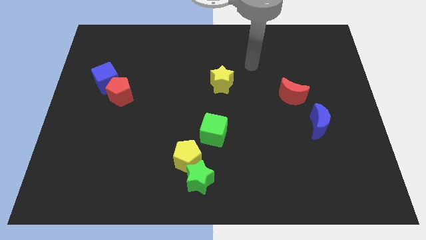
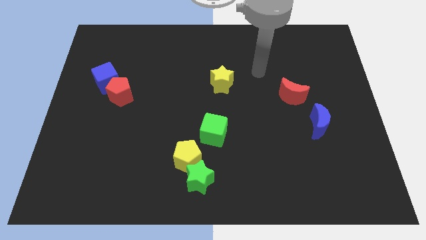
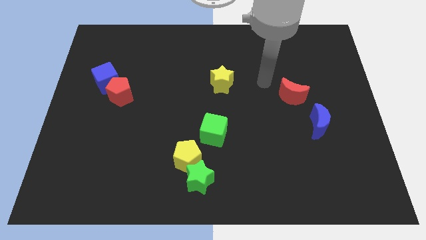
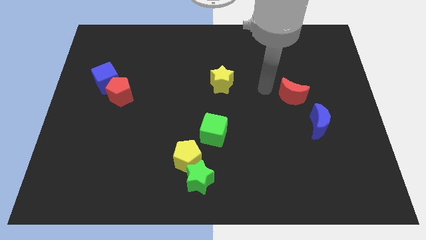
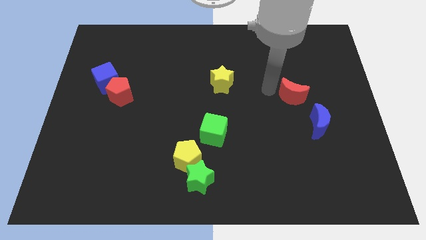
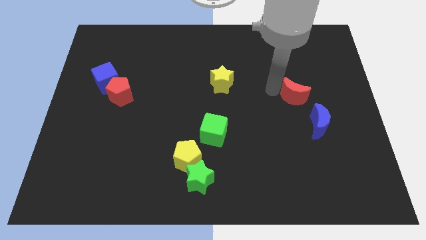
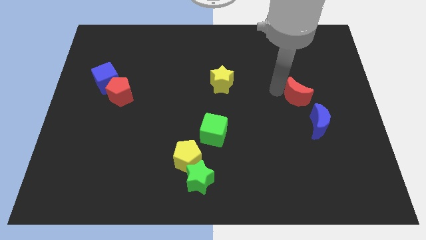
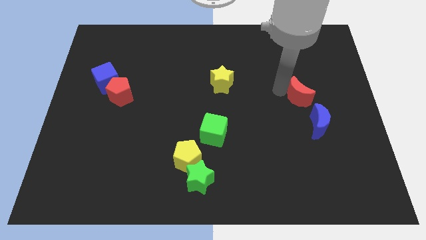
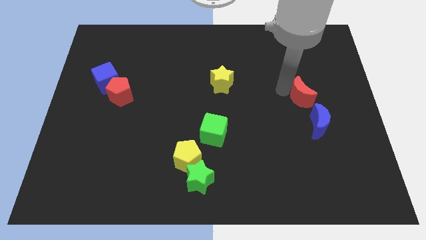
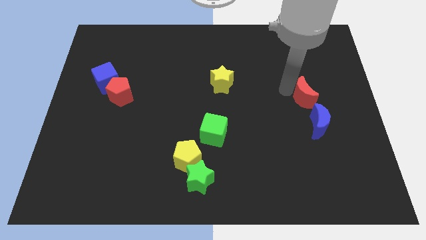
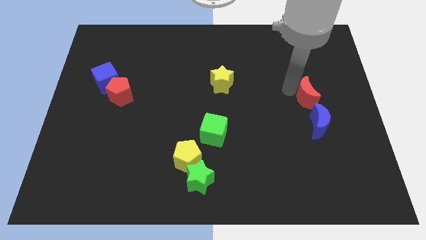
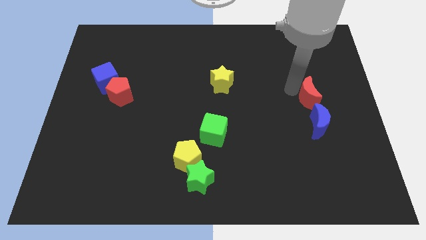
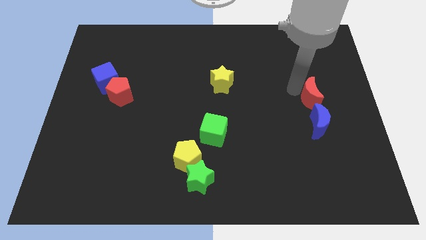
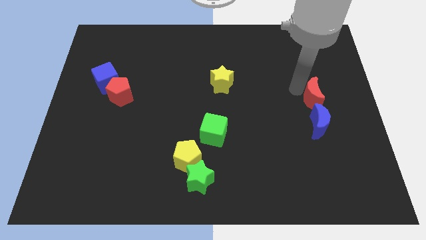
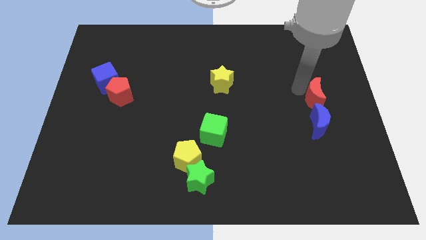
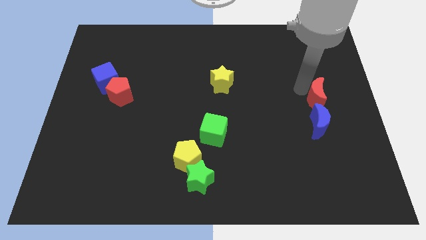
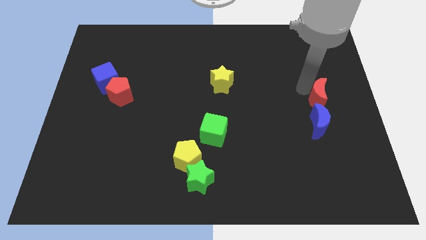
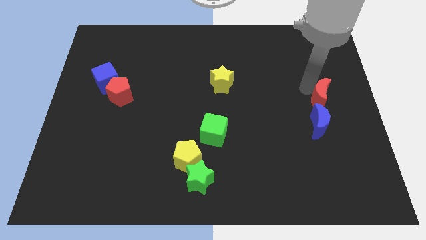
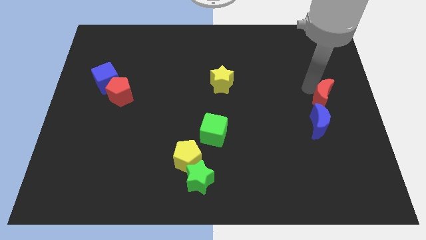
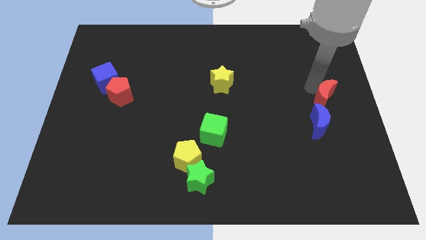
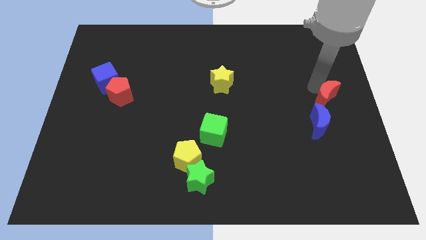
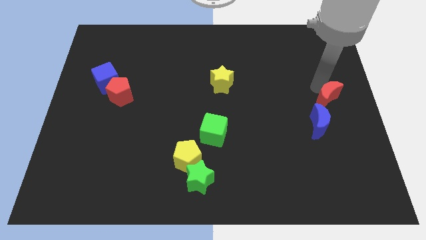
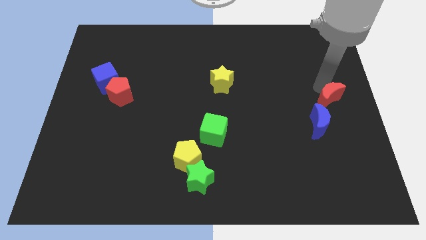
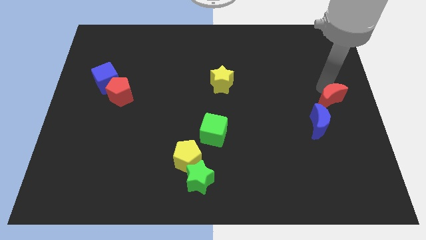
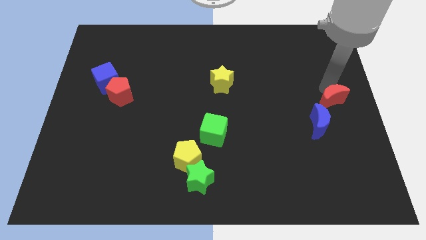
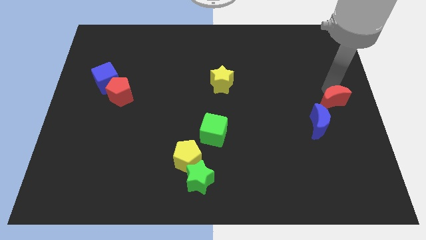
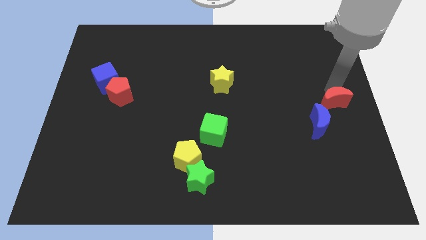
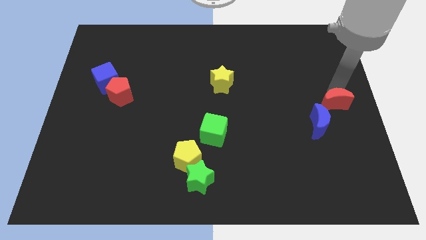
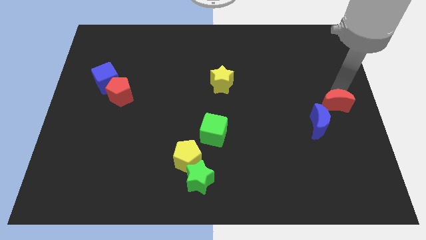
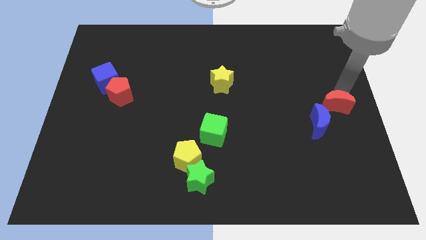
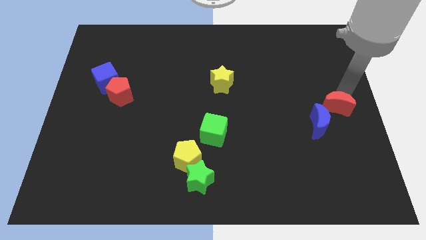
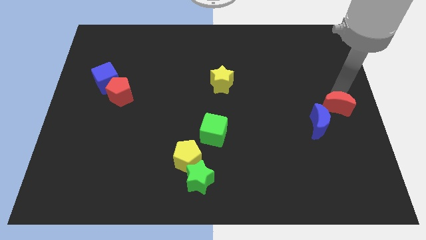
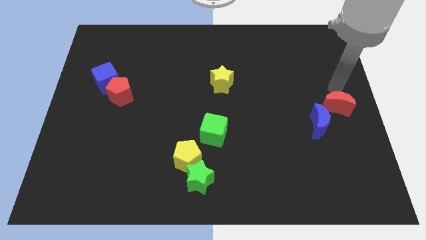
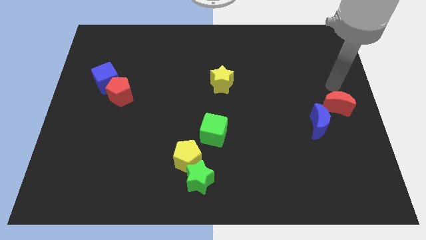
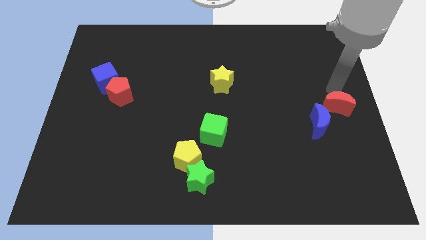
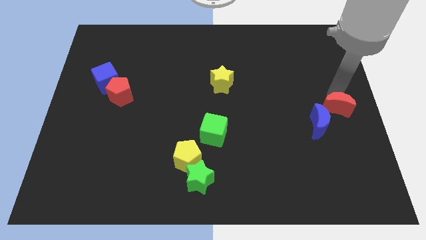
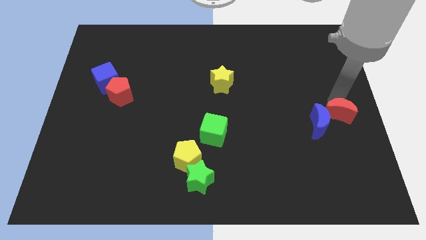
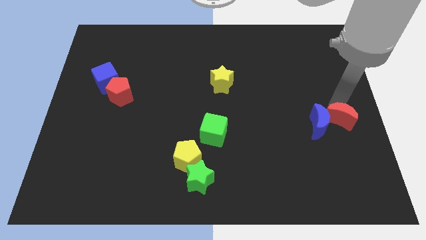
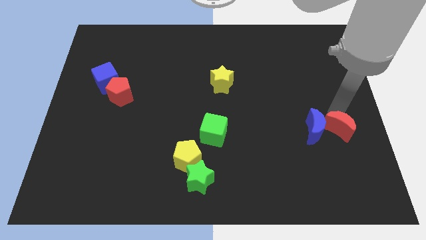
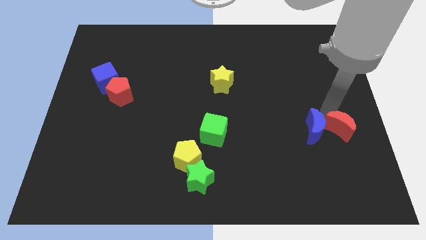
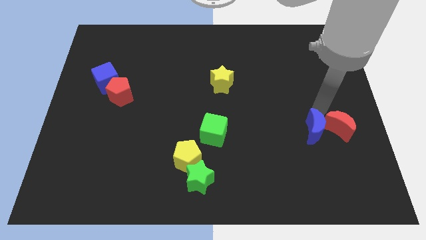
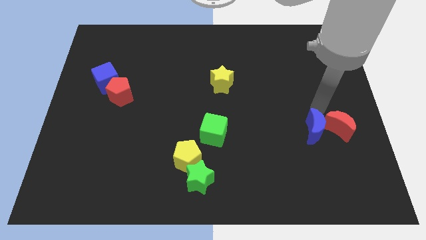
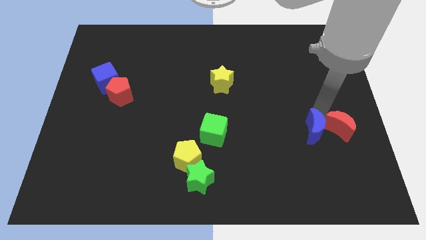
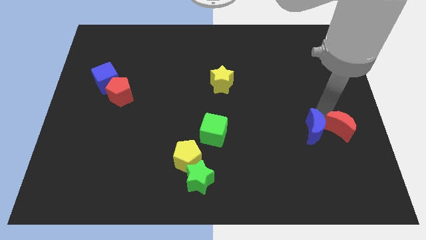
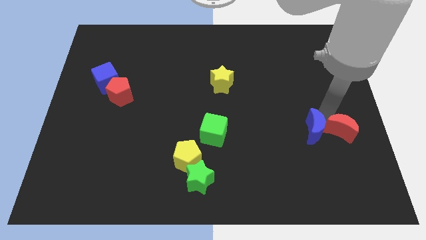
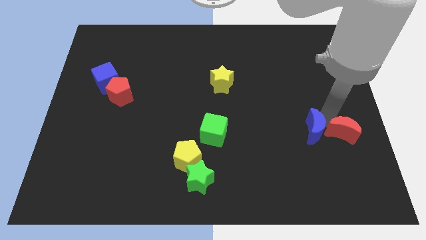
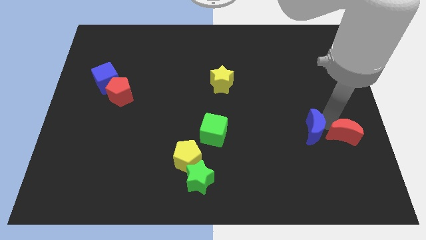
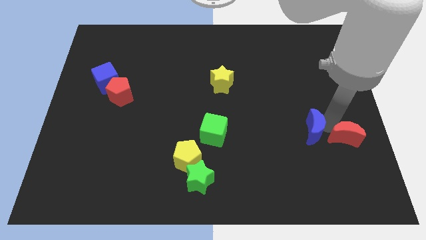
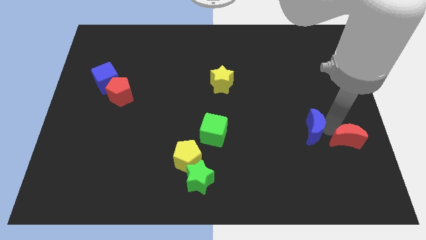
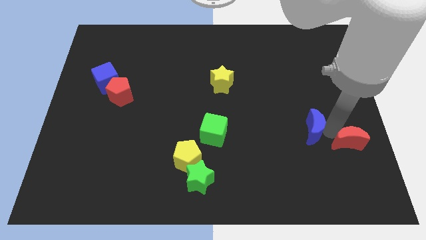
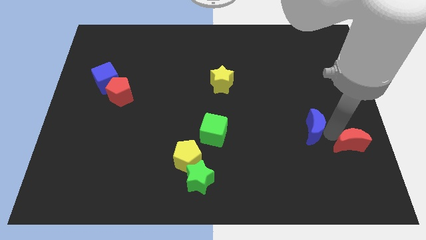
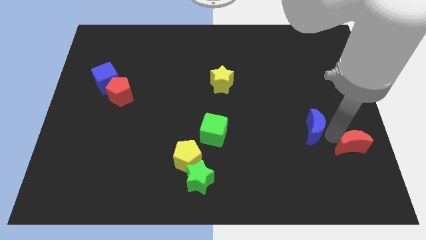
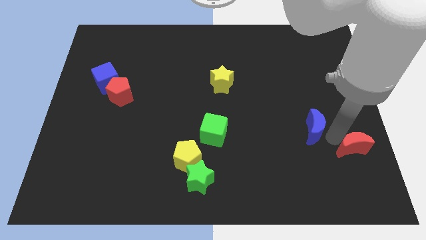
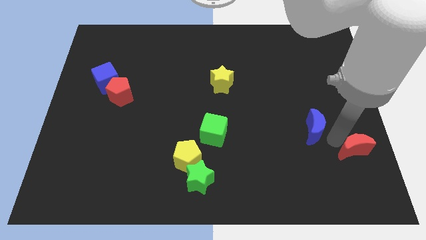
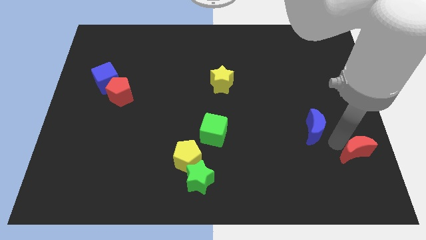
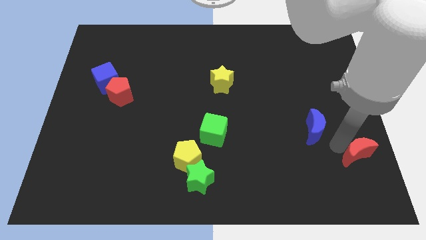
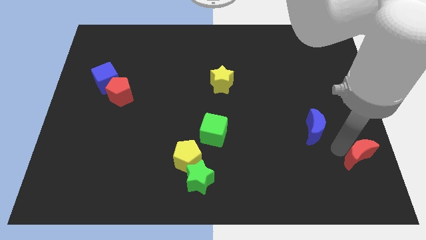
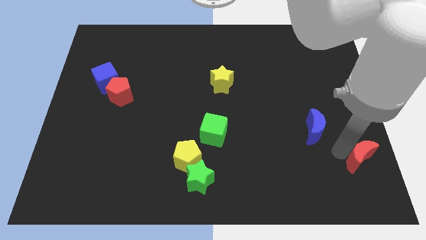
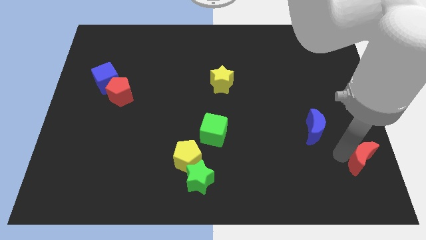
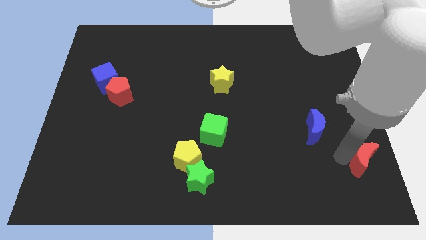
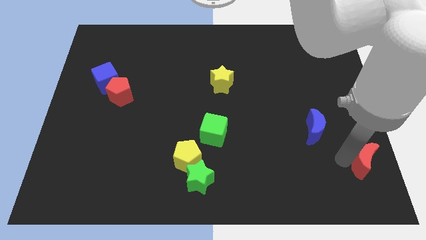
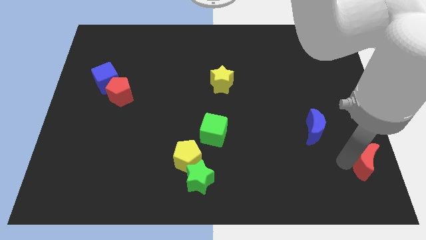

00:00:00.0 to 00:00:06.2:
put the red moon to the bottom right of the board

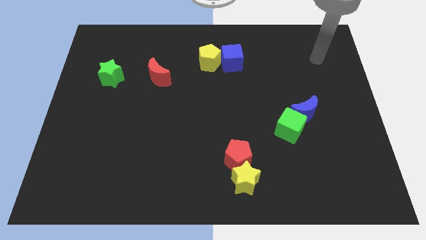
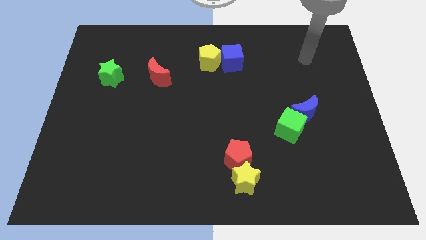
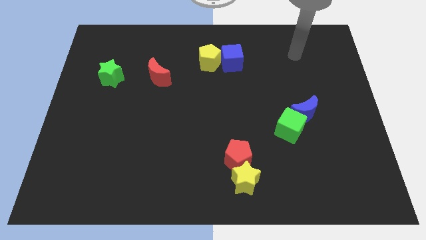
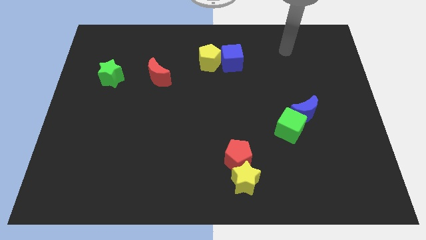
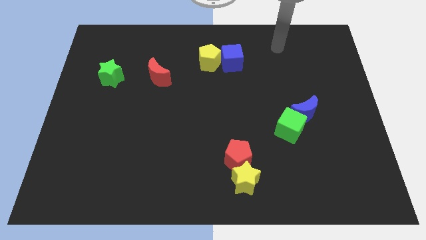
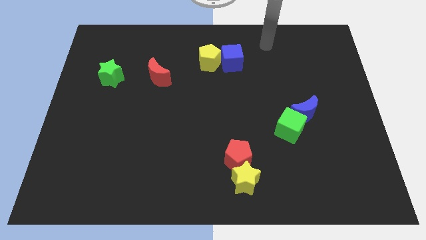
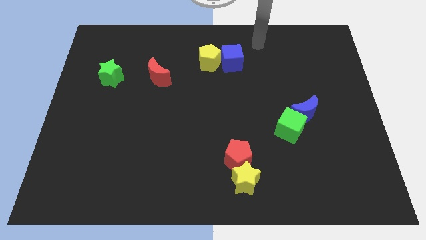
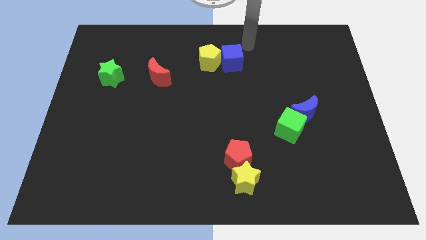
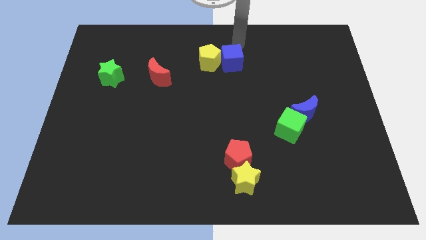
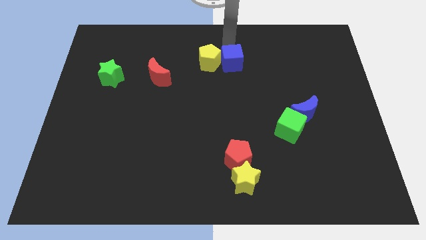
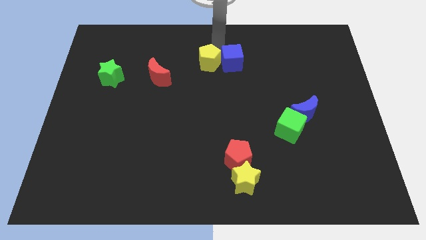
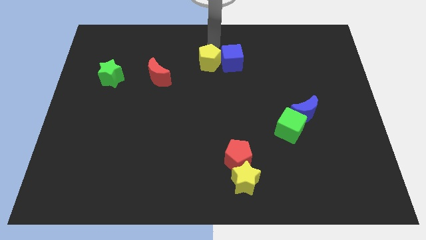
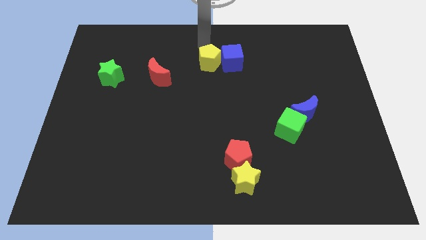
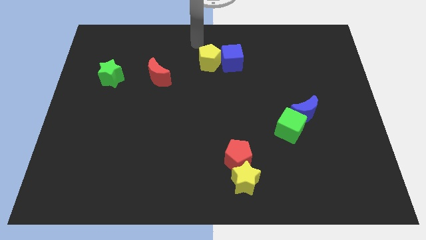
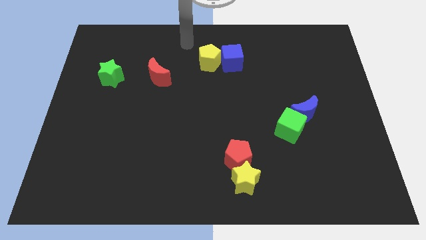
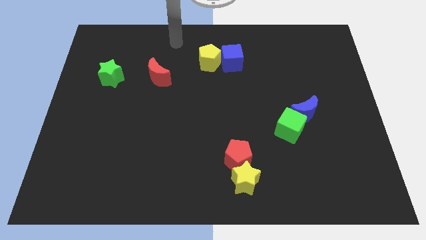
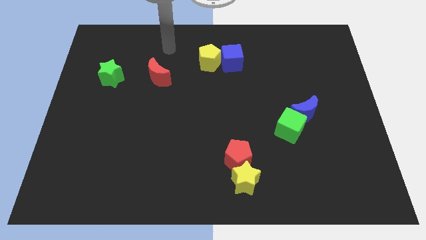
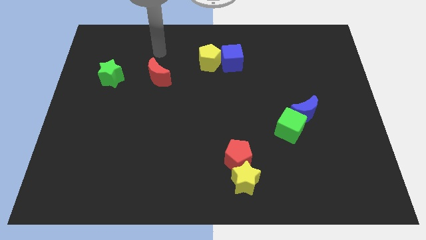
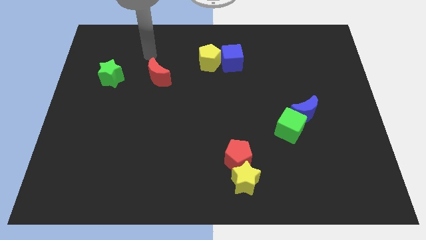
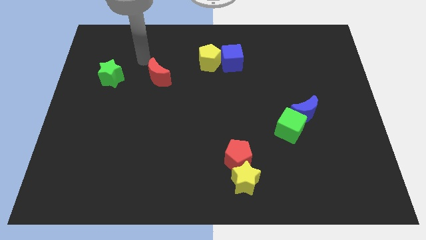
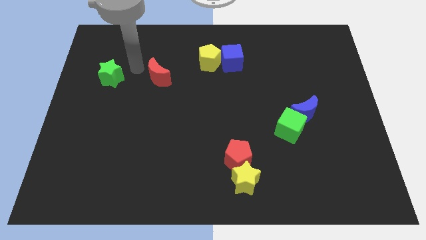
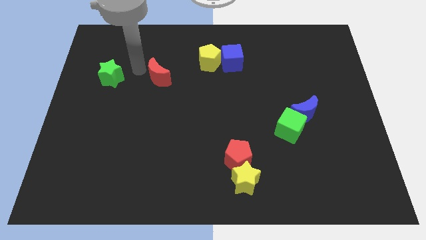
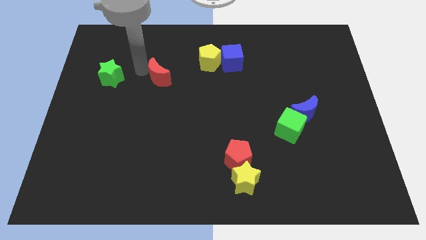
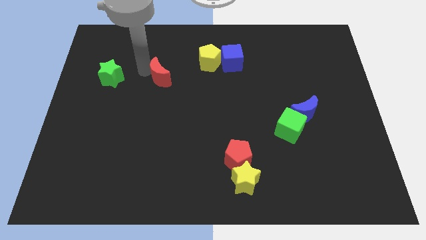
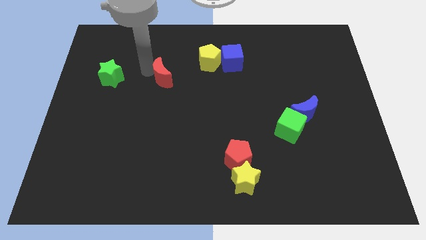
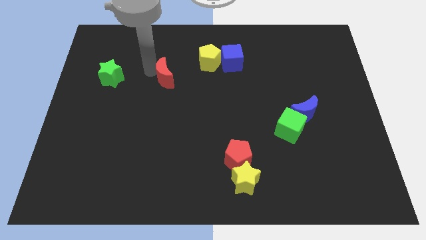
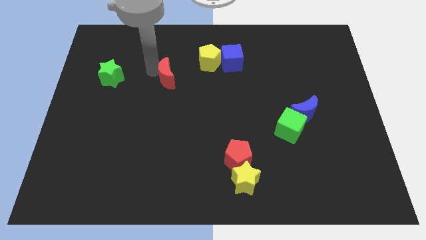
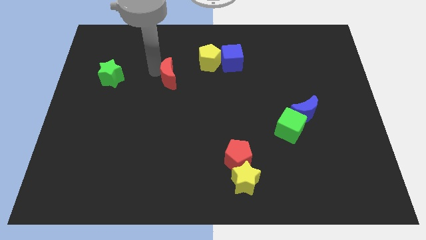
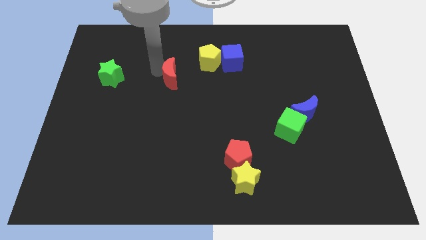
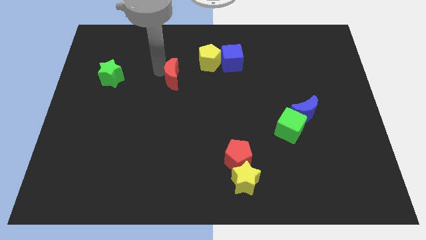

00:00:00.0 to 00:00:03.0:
move the red moon to the middle
